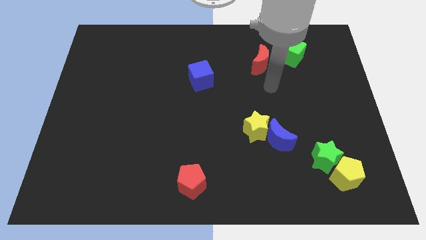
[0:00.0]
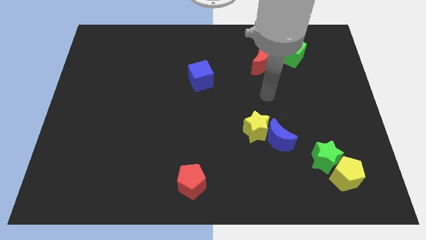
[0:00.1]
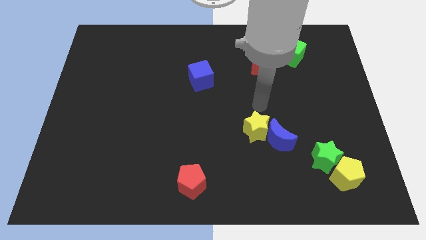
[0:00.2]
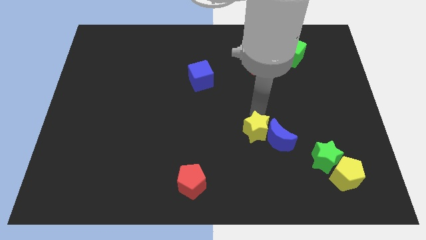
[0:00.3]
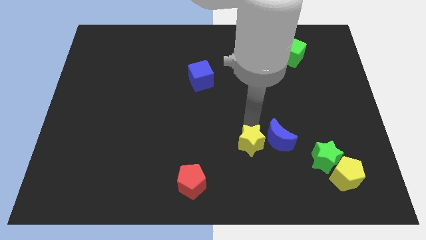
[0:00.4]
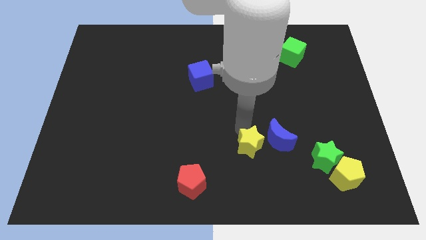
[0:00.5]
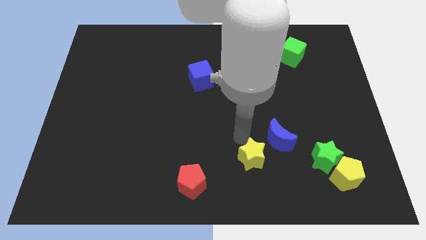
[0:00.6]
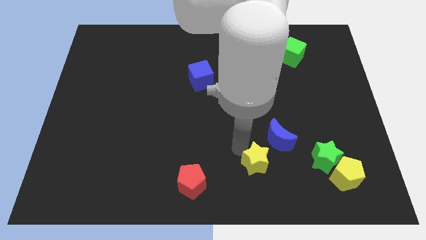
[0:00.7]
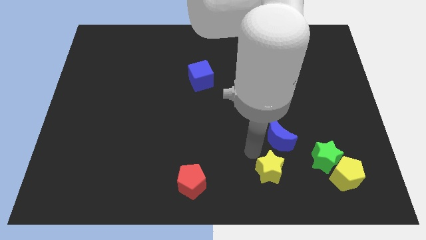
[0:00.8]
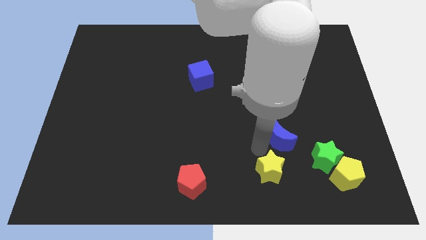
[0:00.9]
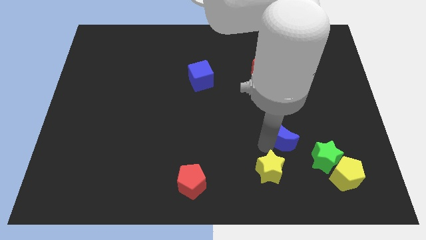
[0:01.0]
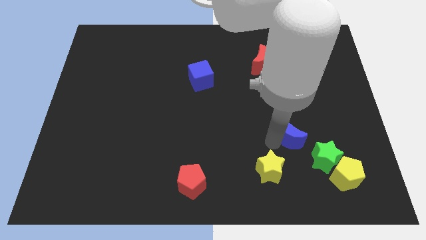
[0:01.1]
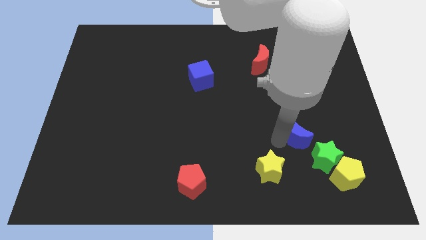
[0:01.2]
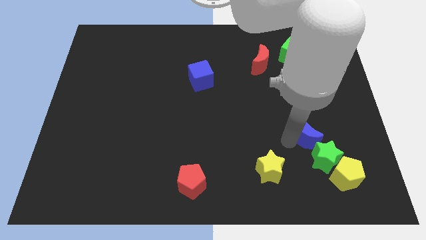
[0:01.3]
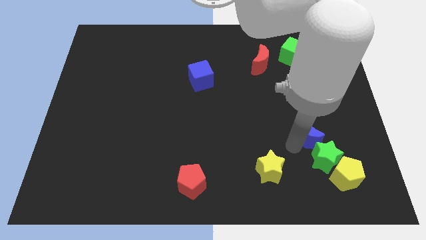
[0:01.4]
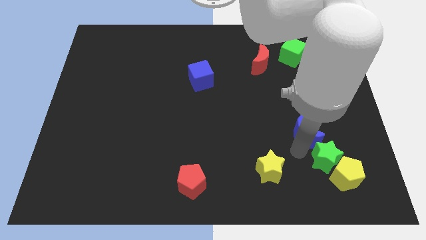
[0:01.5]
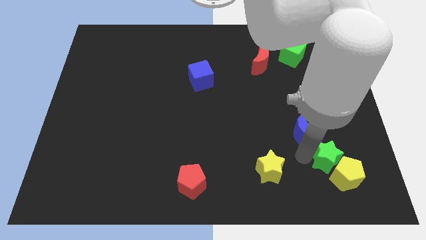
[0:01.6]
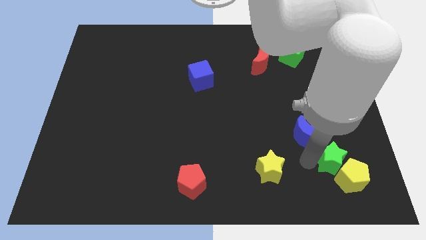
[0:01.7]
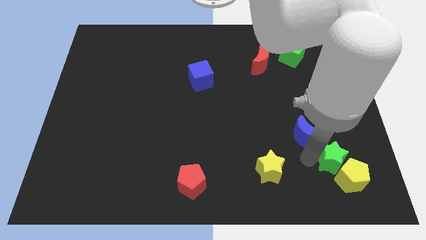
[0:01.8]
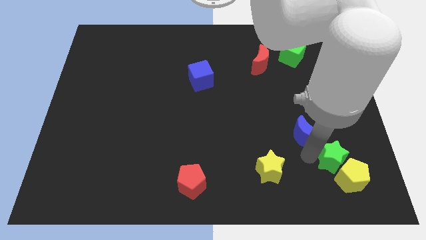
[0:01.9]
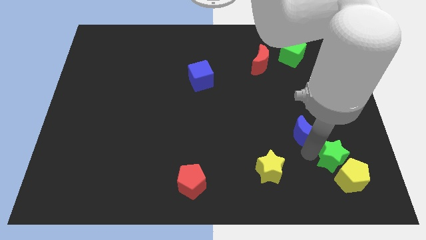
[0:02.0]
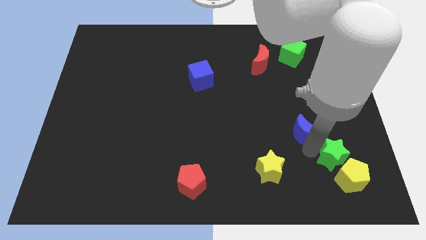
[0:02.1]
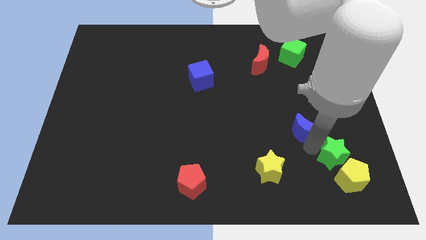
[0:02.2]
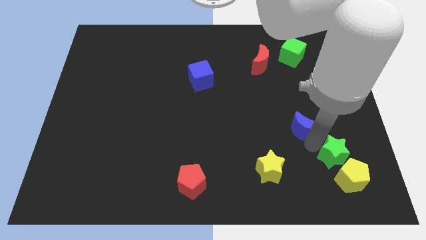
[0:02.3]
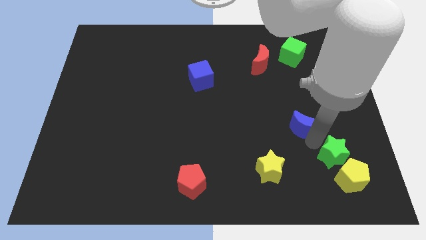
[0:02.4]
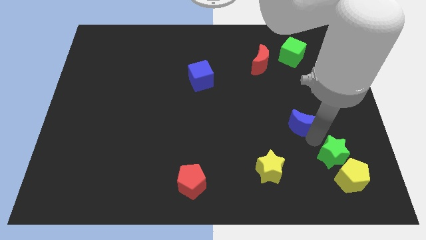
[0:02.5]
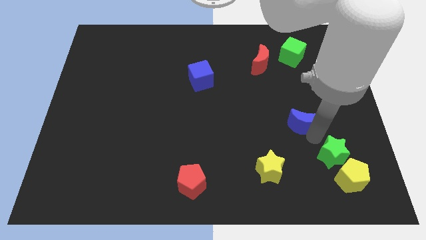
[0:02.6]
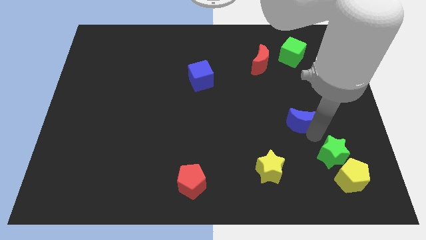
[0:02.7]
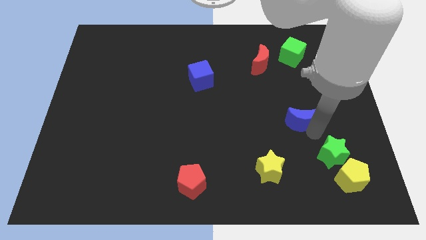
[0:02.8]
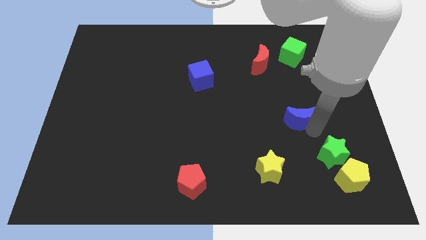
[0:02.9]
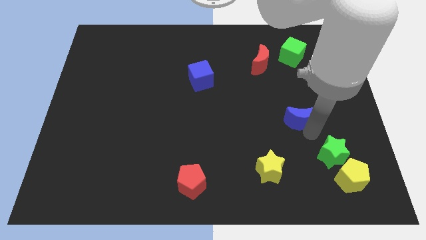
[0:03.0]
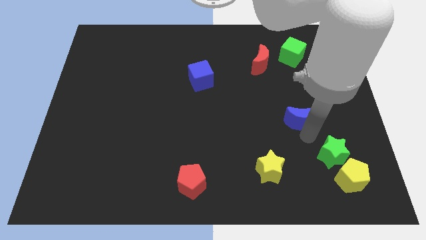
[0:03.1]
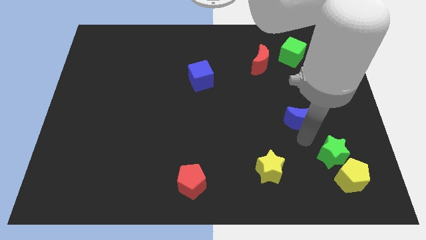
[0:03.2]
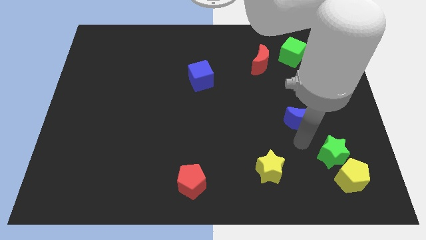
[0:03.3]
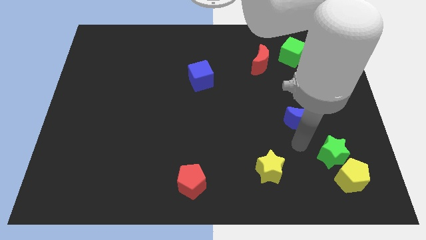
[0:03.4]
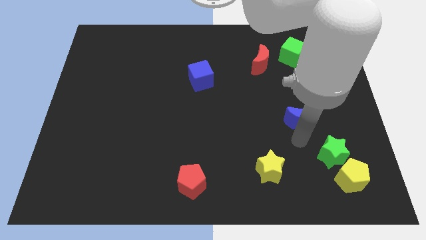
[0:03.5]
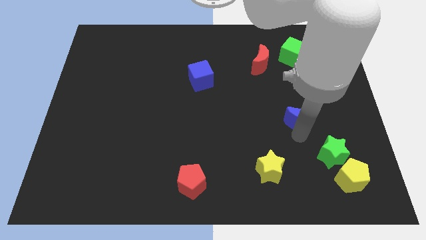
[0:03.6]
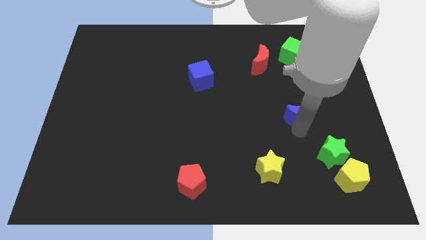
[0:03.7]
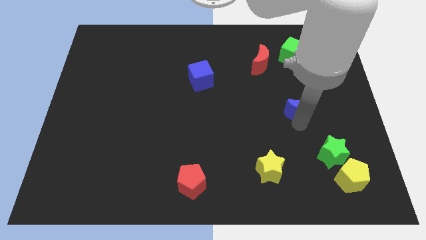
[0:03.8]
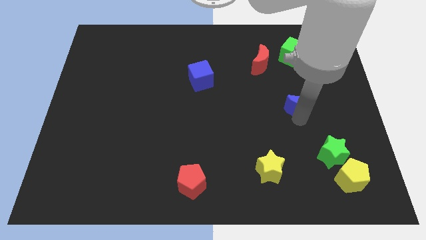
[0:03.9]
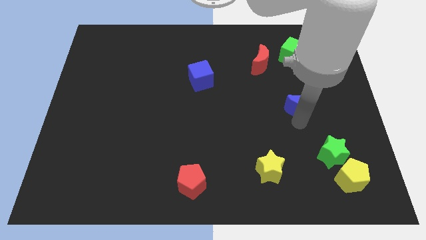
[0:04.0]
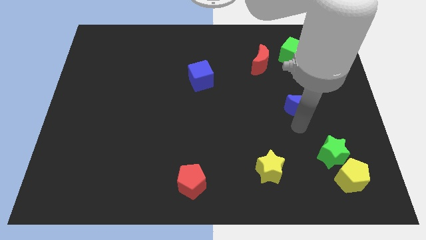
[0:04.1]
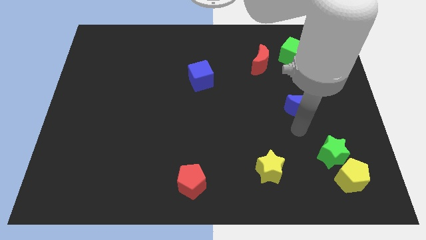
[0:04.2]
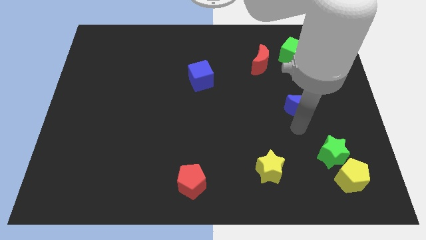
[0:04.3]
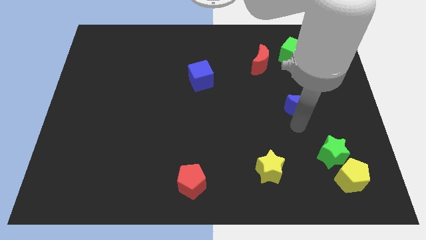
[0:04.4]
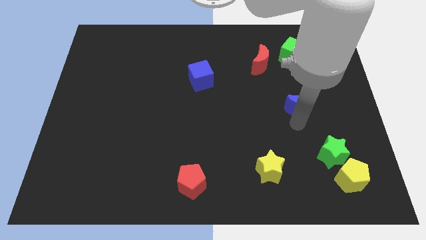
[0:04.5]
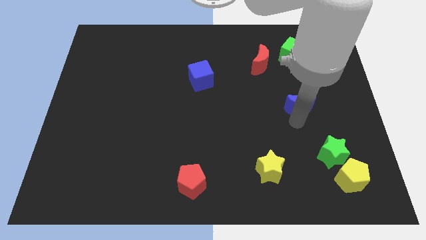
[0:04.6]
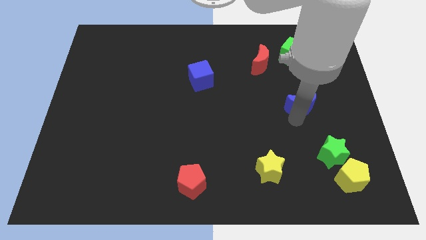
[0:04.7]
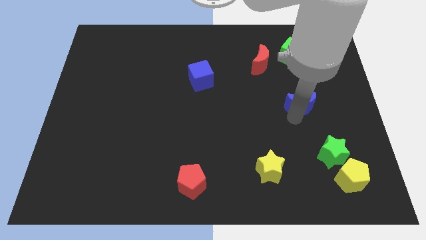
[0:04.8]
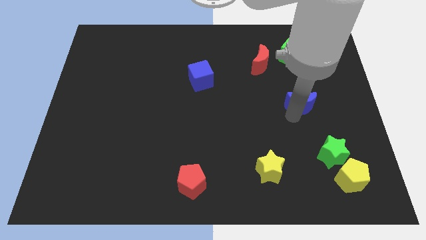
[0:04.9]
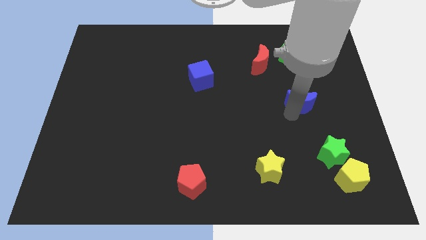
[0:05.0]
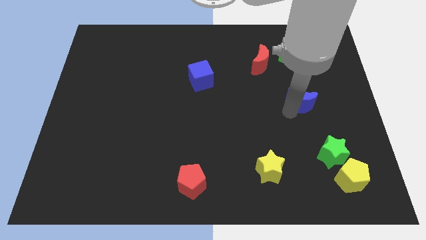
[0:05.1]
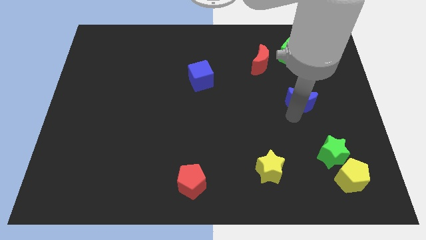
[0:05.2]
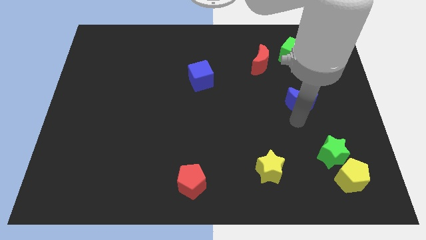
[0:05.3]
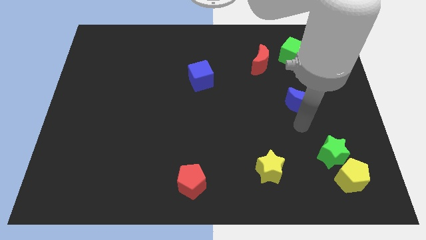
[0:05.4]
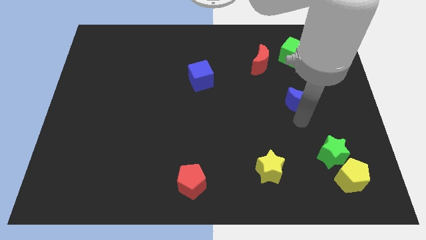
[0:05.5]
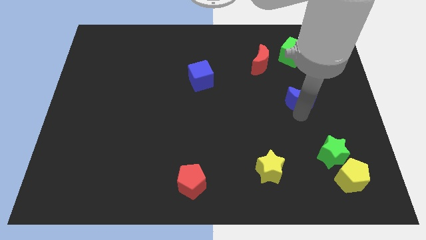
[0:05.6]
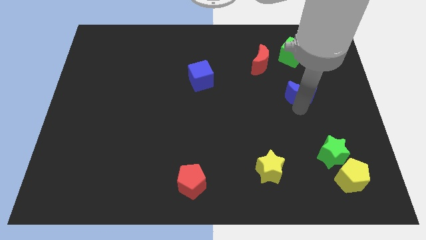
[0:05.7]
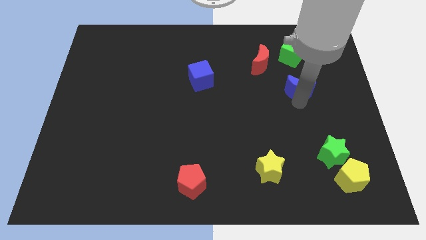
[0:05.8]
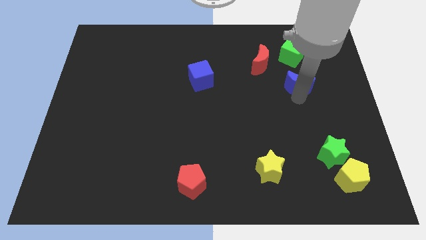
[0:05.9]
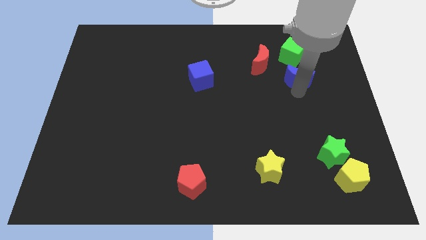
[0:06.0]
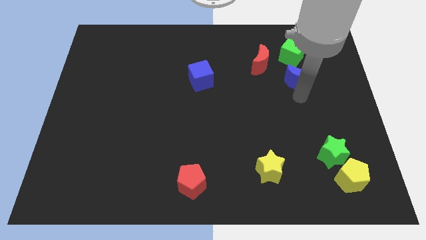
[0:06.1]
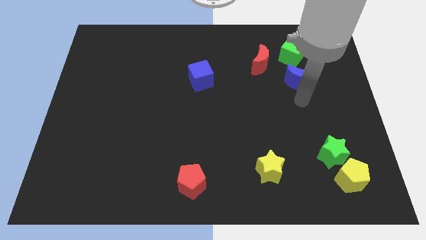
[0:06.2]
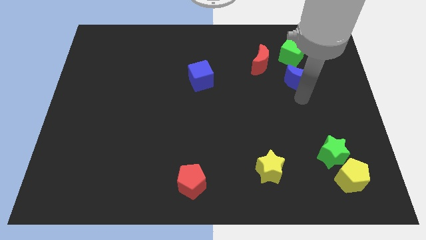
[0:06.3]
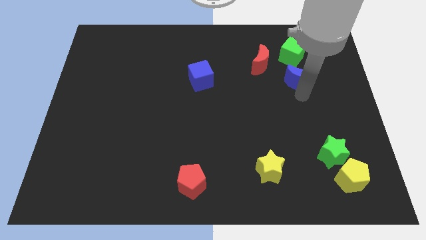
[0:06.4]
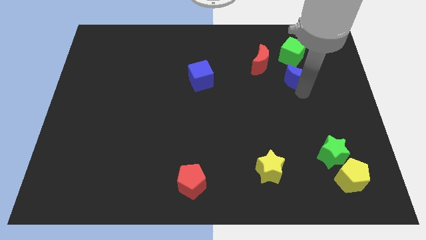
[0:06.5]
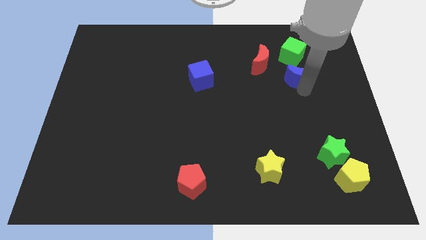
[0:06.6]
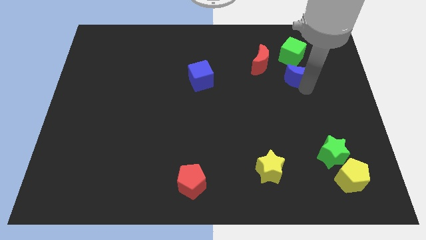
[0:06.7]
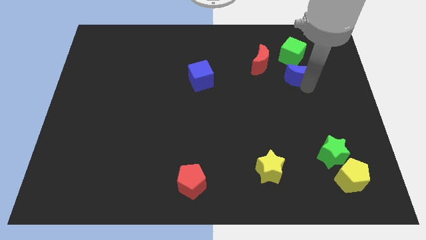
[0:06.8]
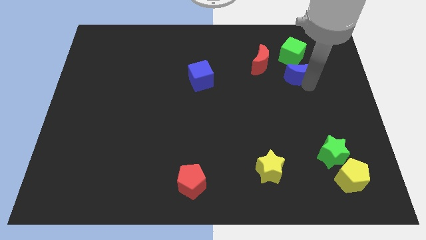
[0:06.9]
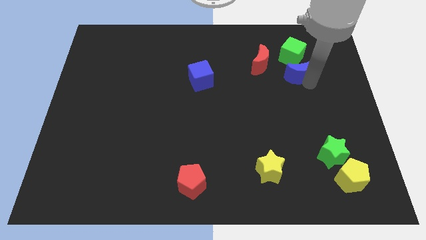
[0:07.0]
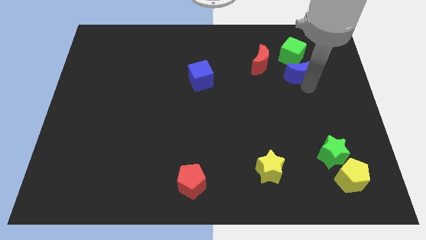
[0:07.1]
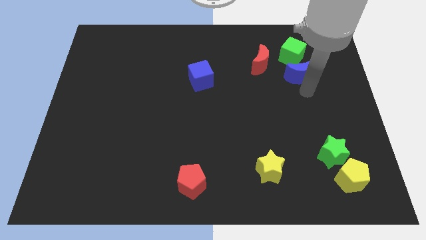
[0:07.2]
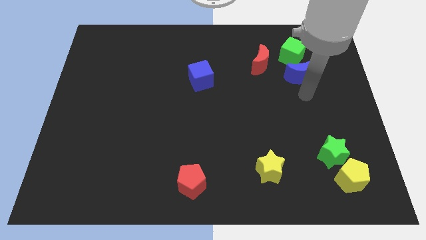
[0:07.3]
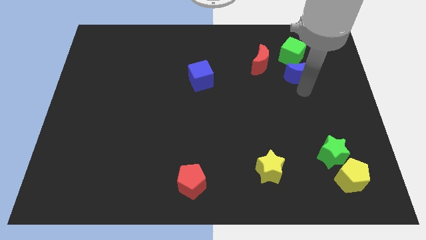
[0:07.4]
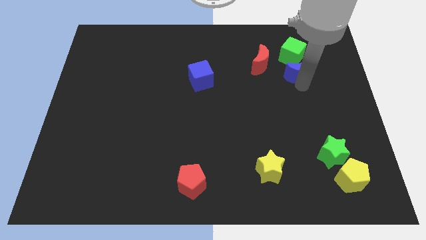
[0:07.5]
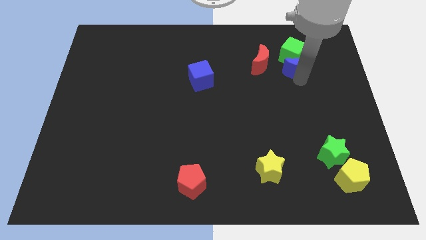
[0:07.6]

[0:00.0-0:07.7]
slide the blue moon next to the green cube

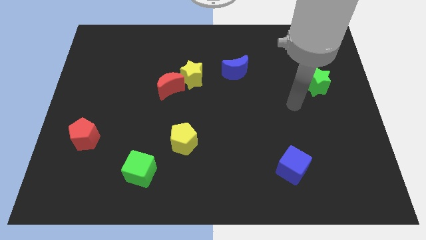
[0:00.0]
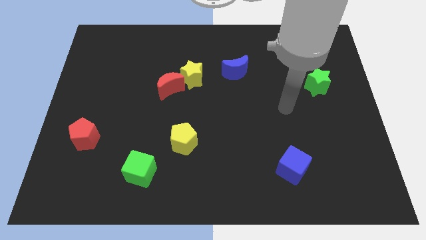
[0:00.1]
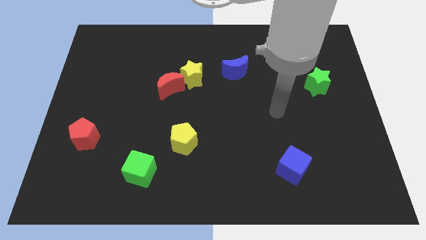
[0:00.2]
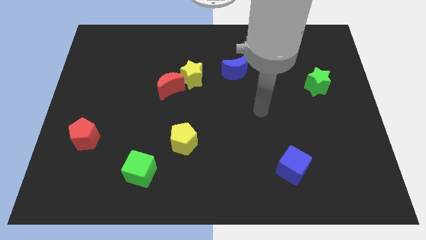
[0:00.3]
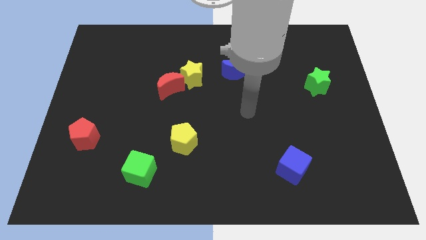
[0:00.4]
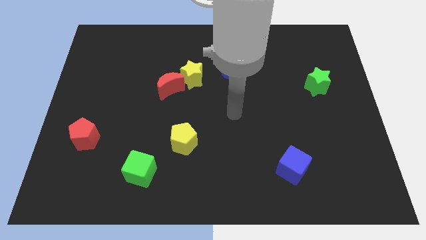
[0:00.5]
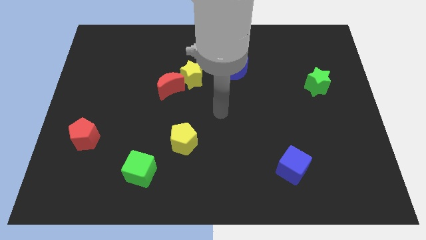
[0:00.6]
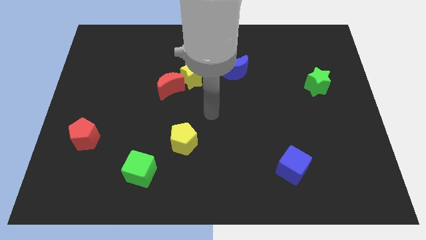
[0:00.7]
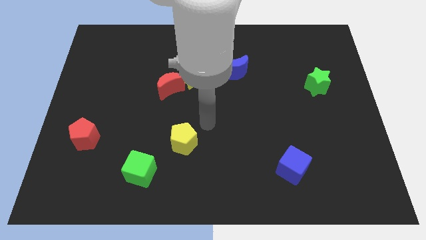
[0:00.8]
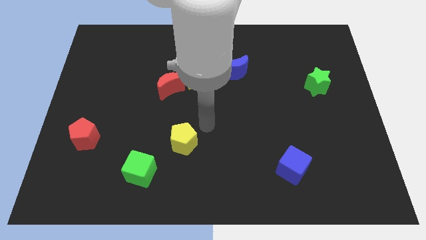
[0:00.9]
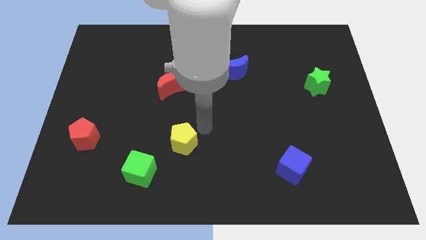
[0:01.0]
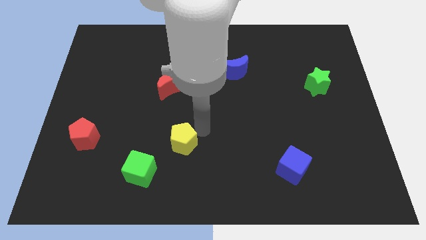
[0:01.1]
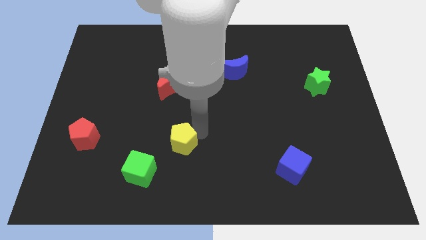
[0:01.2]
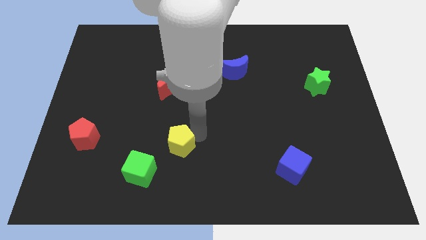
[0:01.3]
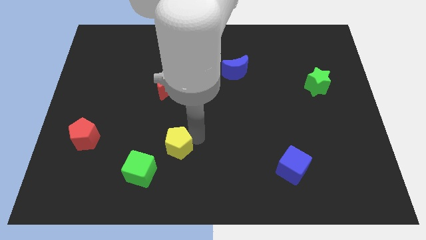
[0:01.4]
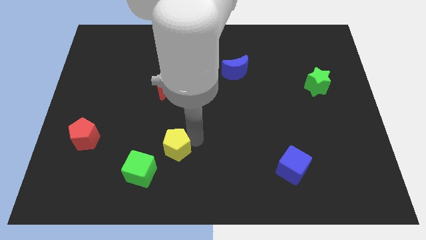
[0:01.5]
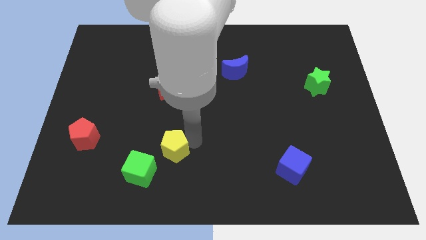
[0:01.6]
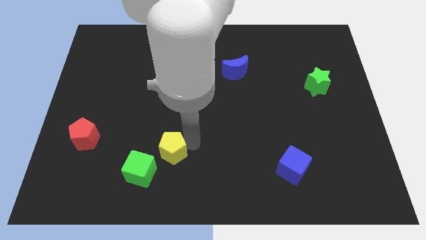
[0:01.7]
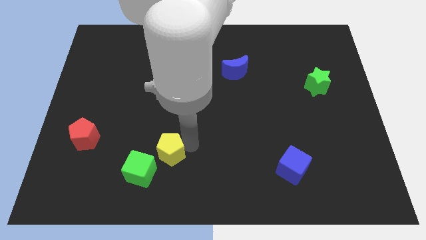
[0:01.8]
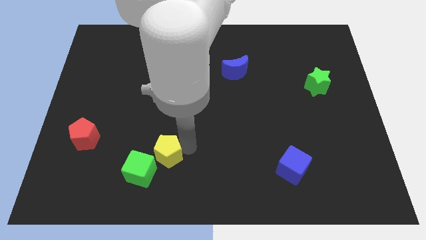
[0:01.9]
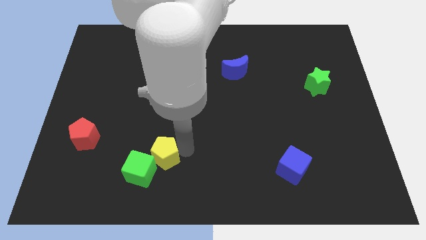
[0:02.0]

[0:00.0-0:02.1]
slide the yellow pentagon to the green cube
